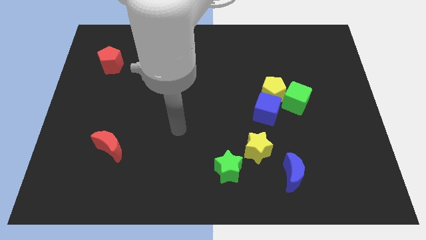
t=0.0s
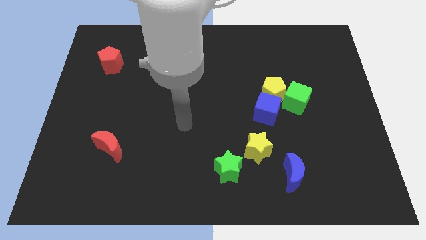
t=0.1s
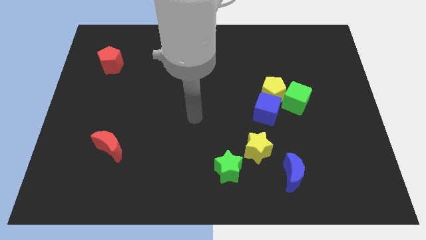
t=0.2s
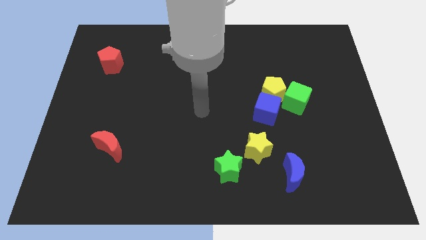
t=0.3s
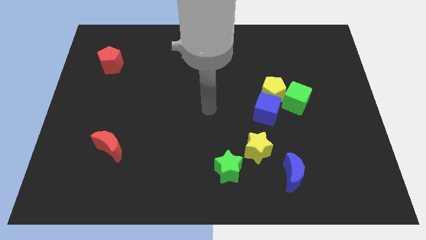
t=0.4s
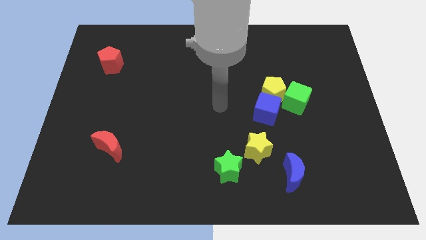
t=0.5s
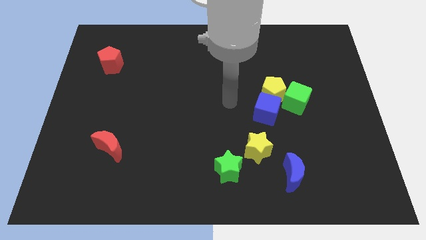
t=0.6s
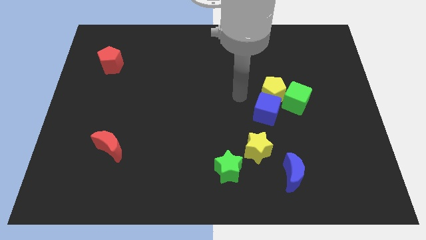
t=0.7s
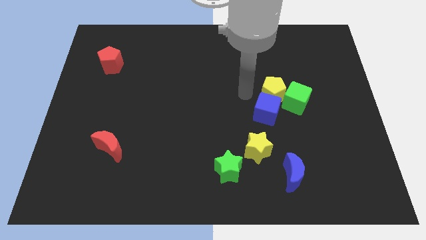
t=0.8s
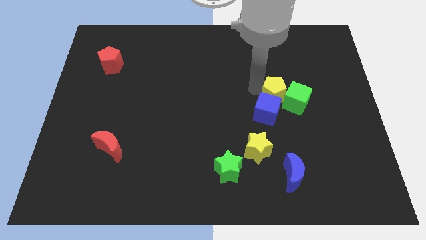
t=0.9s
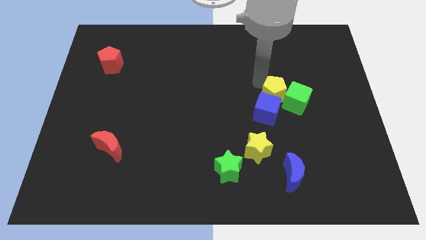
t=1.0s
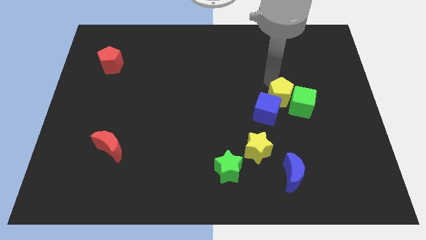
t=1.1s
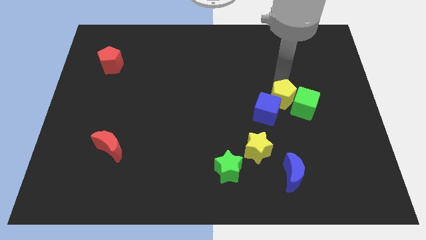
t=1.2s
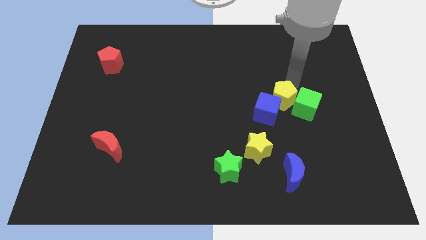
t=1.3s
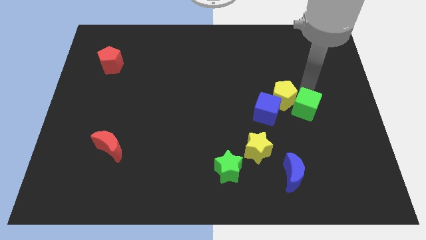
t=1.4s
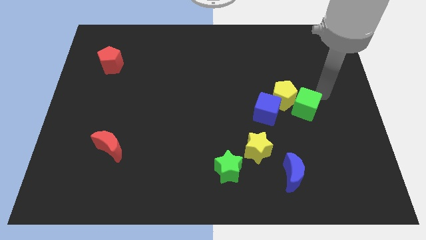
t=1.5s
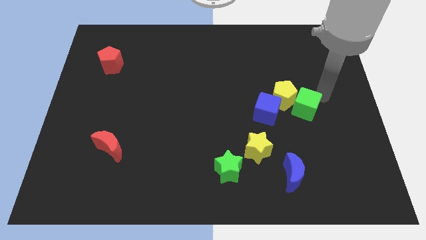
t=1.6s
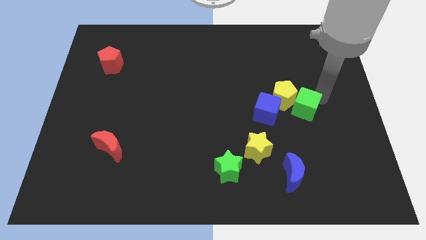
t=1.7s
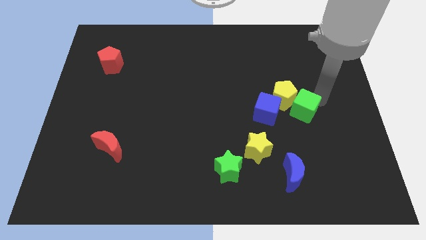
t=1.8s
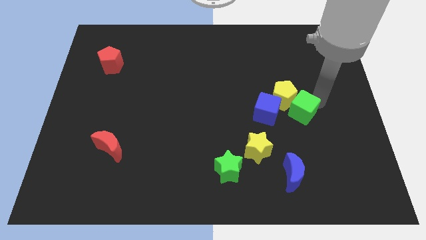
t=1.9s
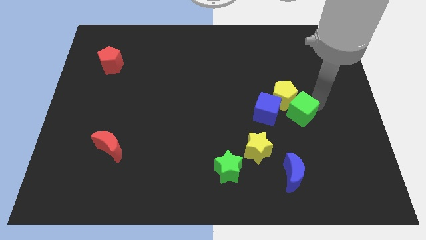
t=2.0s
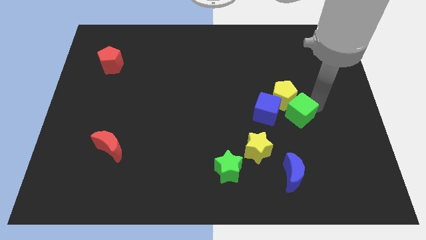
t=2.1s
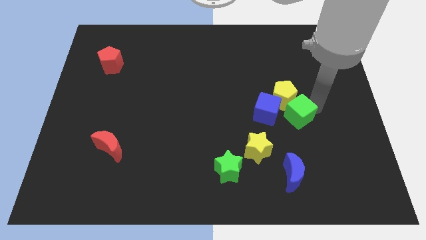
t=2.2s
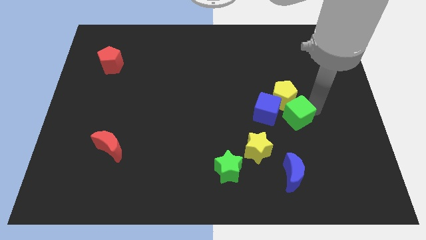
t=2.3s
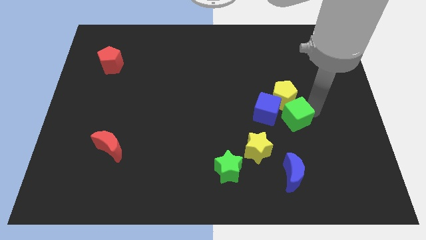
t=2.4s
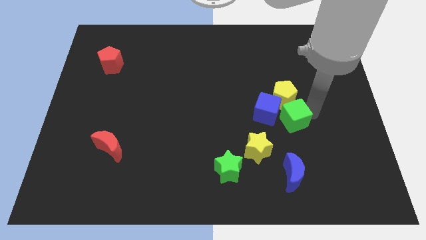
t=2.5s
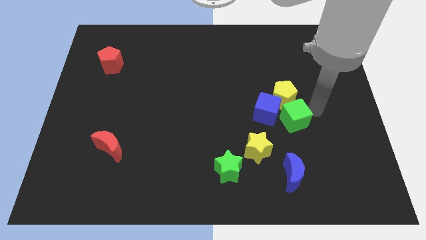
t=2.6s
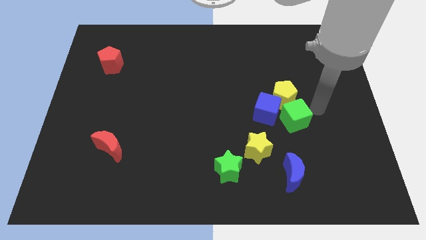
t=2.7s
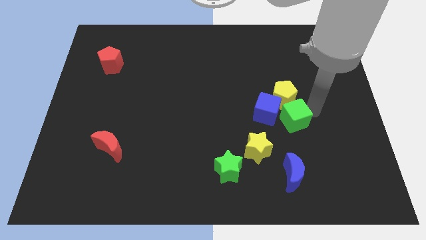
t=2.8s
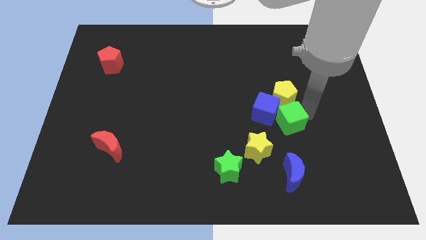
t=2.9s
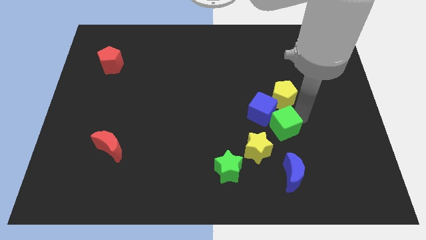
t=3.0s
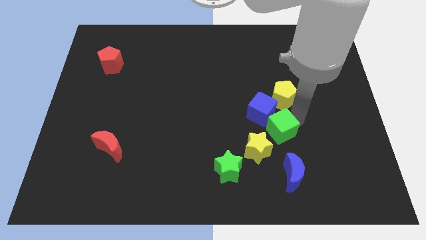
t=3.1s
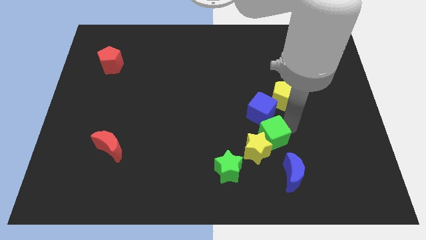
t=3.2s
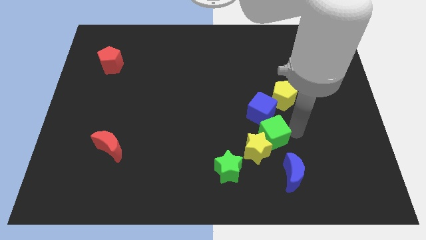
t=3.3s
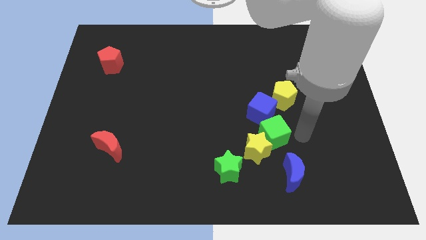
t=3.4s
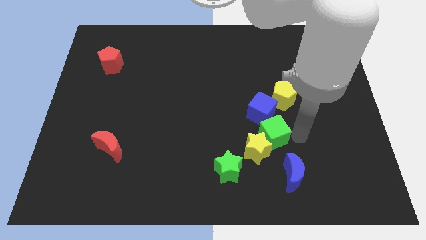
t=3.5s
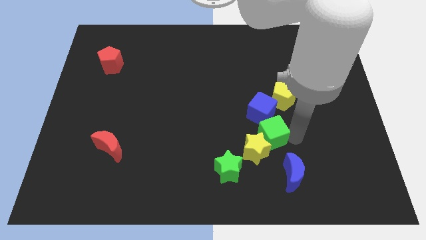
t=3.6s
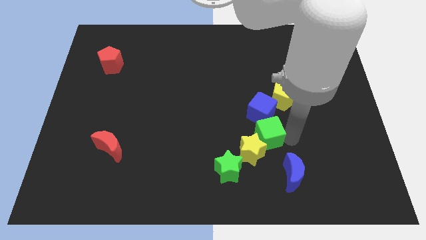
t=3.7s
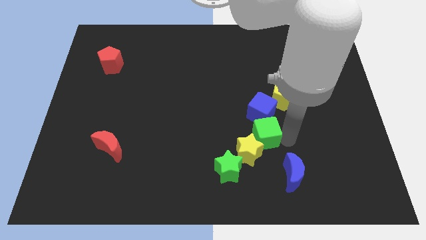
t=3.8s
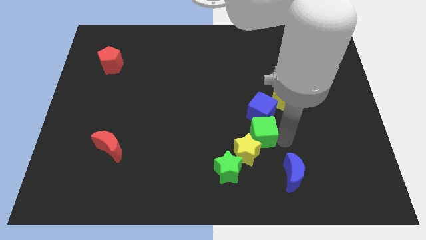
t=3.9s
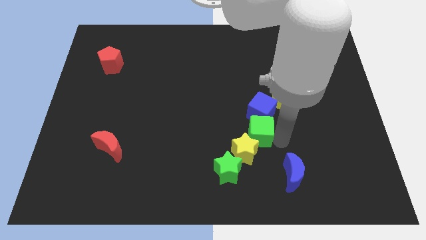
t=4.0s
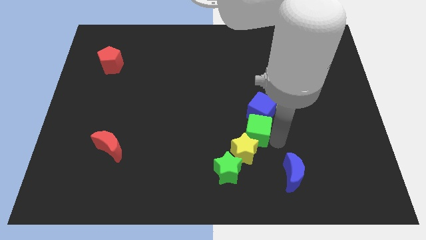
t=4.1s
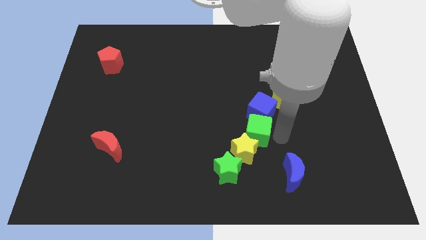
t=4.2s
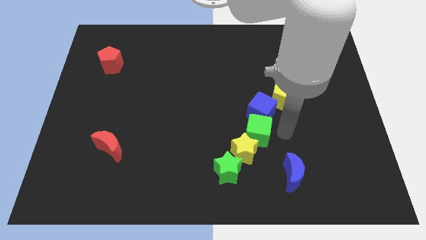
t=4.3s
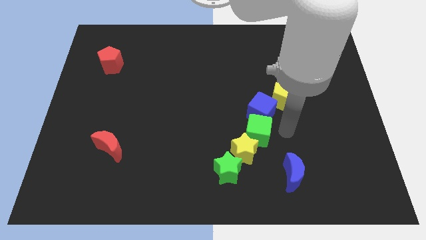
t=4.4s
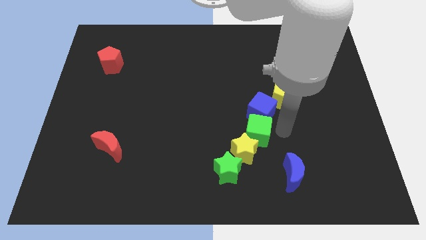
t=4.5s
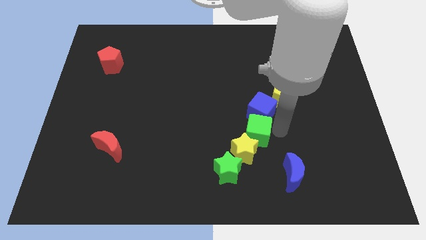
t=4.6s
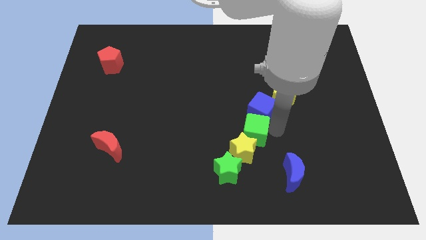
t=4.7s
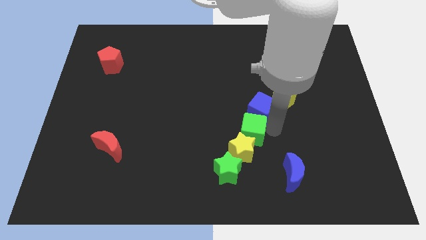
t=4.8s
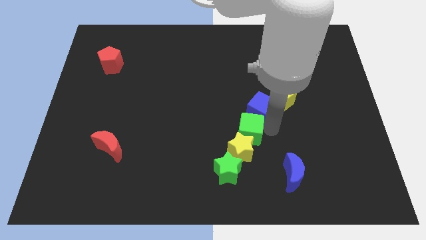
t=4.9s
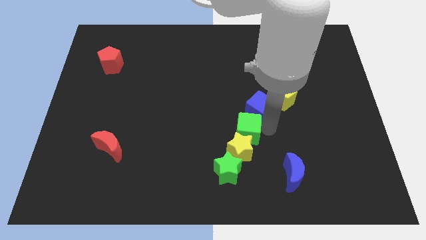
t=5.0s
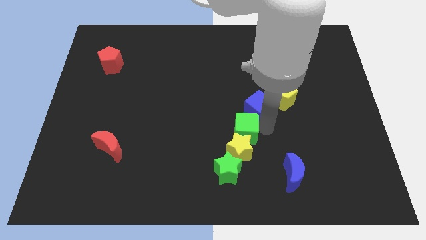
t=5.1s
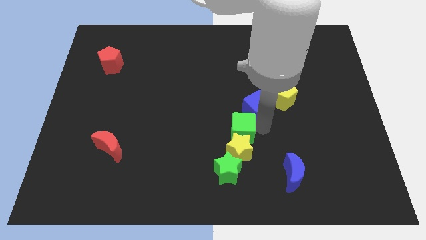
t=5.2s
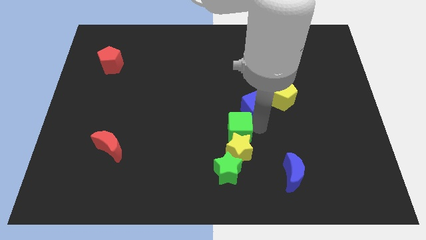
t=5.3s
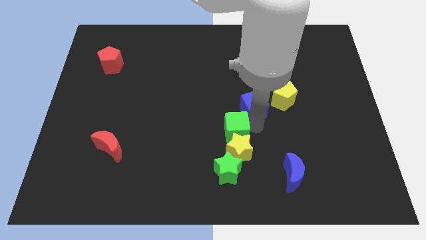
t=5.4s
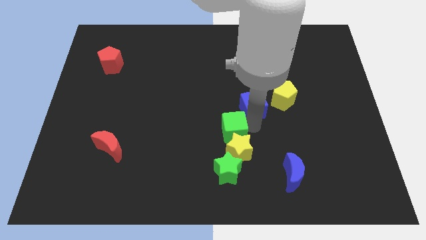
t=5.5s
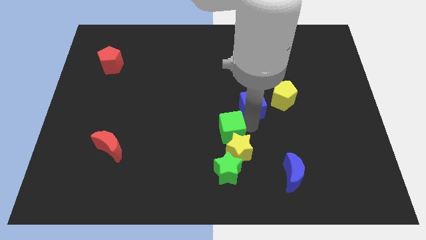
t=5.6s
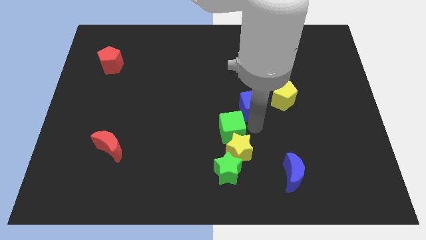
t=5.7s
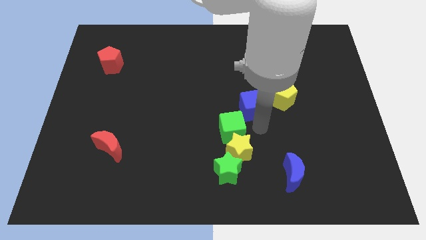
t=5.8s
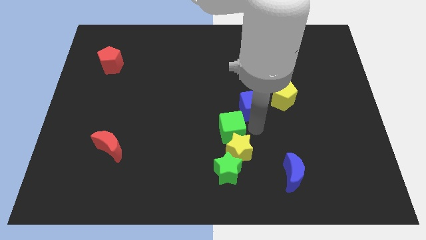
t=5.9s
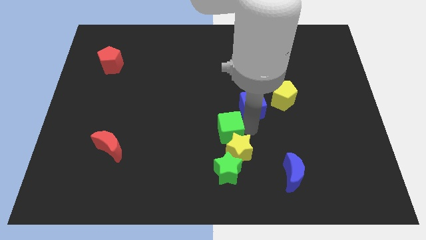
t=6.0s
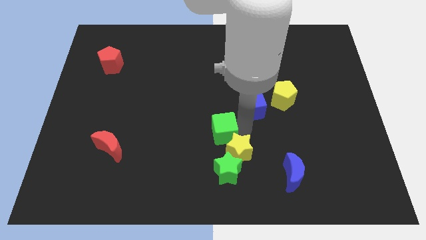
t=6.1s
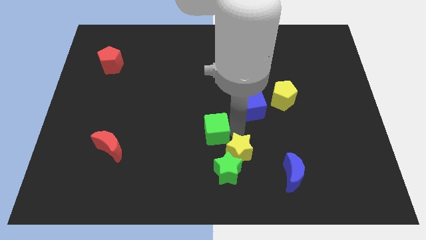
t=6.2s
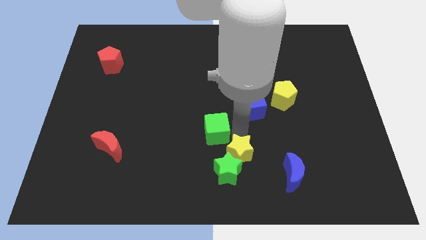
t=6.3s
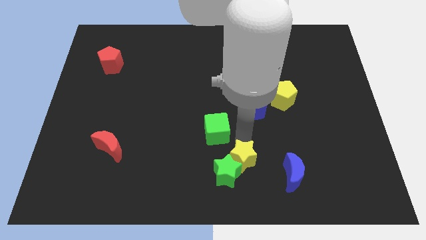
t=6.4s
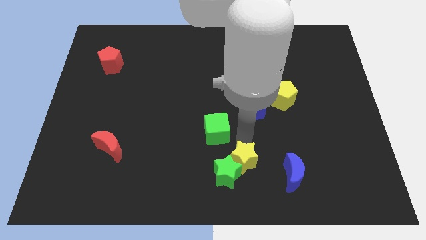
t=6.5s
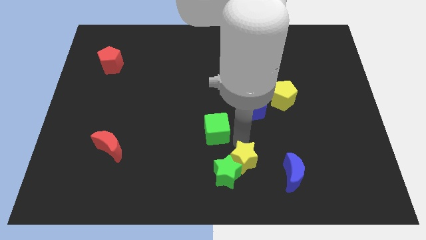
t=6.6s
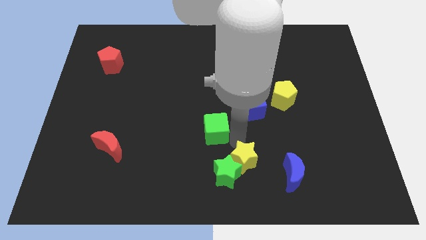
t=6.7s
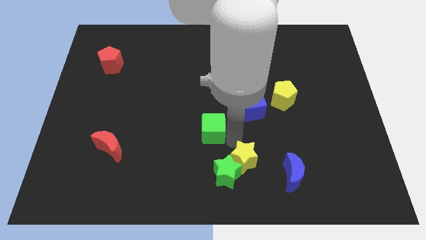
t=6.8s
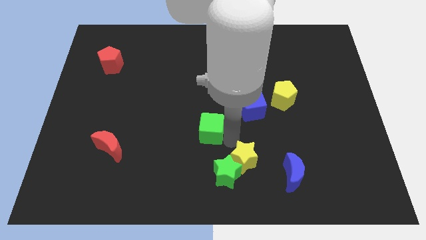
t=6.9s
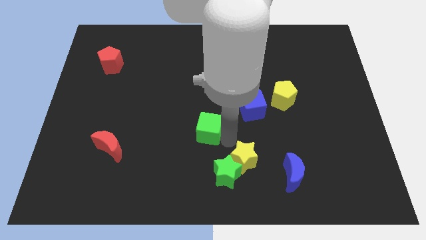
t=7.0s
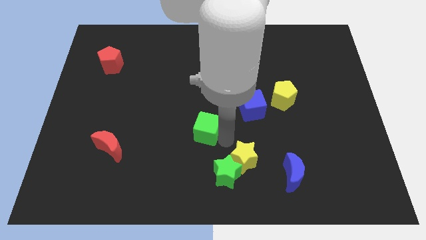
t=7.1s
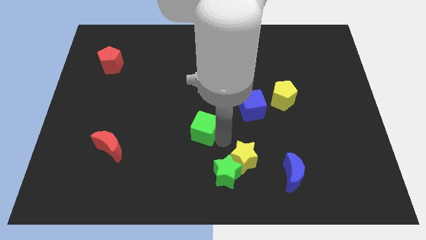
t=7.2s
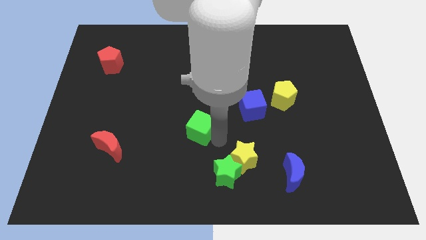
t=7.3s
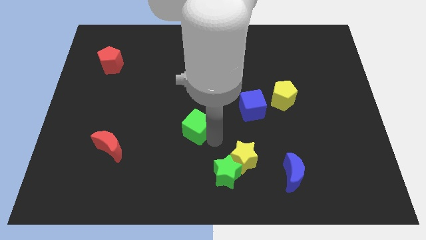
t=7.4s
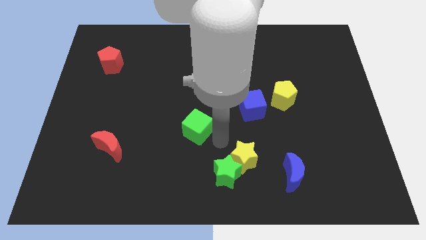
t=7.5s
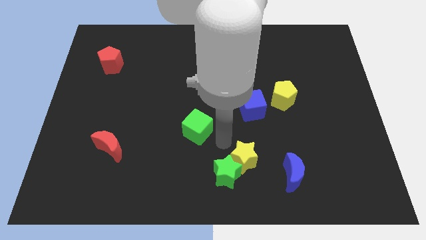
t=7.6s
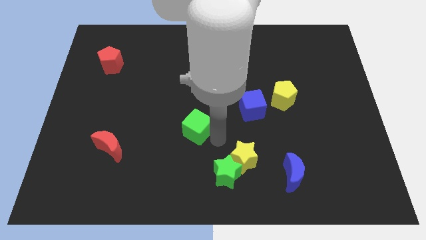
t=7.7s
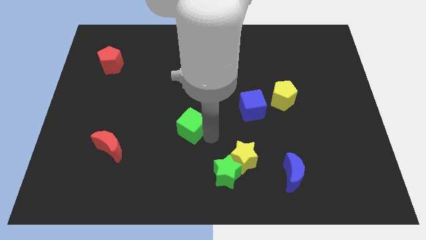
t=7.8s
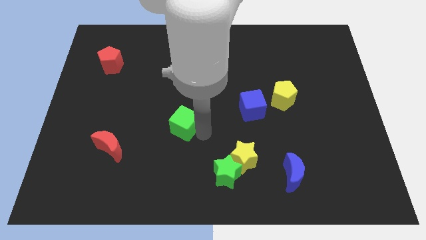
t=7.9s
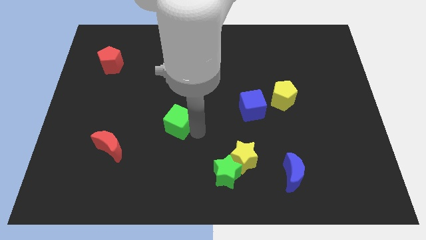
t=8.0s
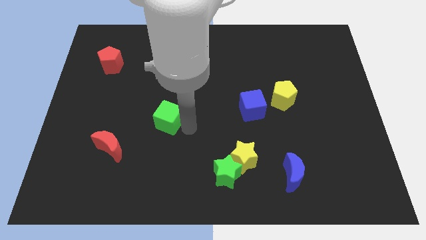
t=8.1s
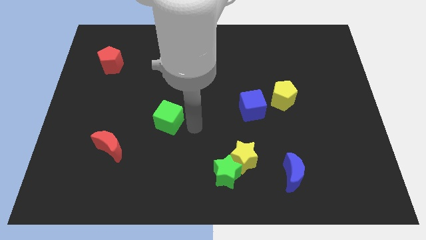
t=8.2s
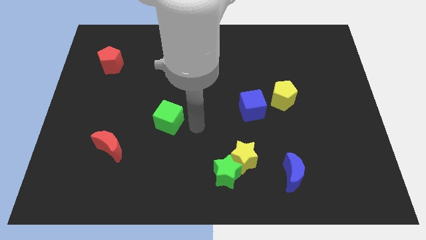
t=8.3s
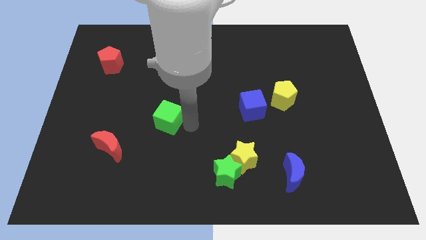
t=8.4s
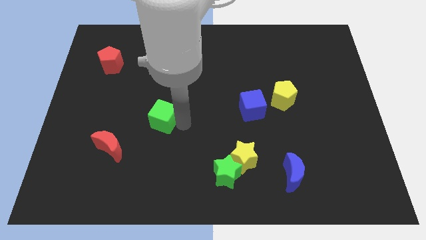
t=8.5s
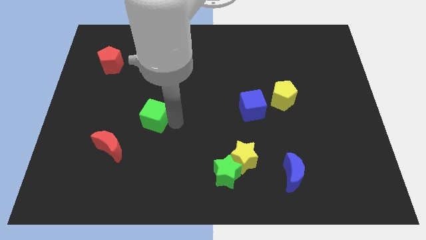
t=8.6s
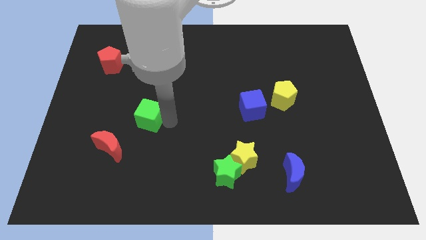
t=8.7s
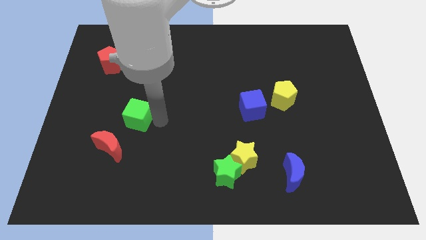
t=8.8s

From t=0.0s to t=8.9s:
slide the green cube to the top of the red moon
